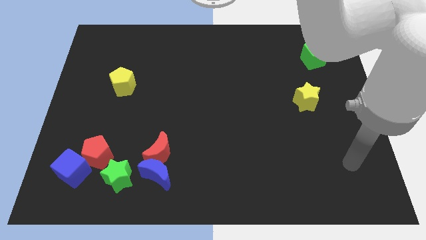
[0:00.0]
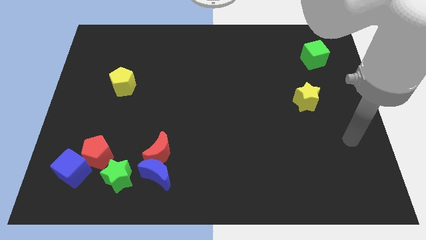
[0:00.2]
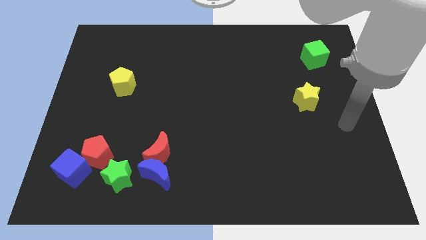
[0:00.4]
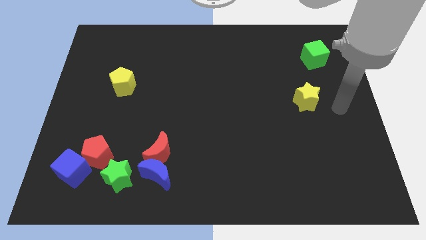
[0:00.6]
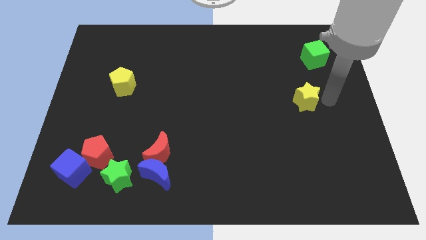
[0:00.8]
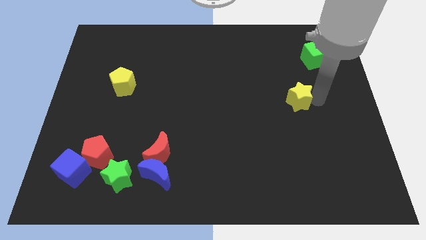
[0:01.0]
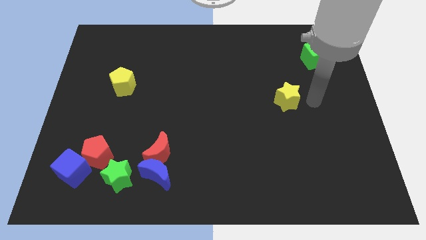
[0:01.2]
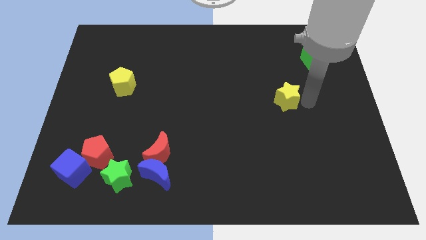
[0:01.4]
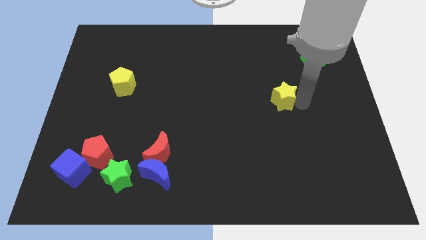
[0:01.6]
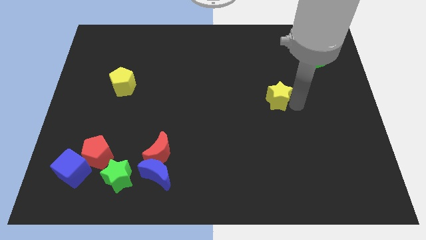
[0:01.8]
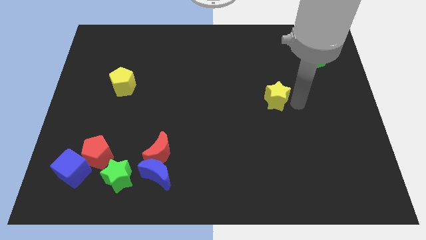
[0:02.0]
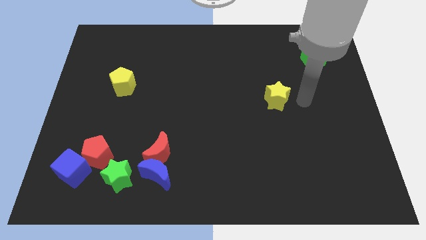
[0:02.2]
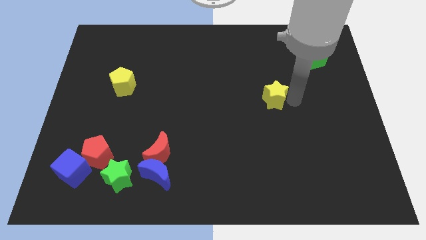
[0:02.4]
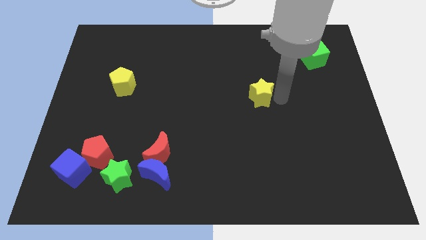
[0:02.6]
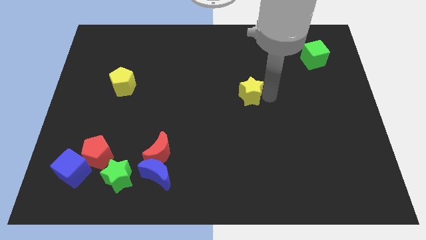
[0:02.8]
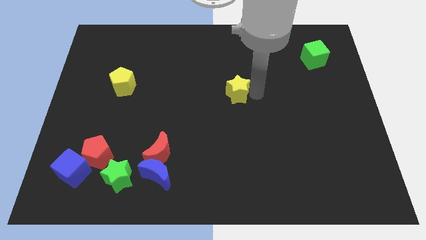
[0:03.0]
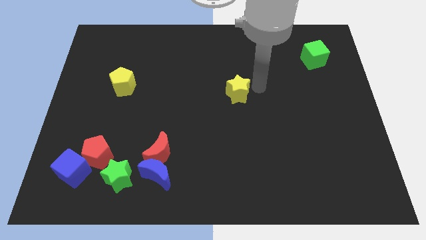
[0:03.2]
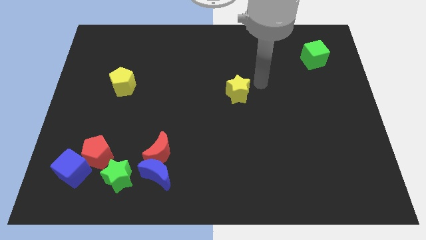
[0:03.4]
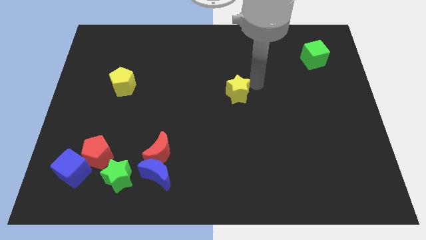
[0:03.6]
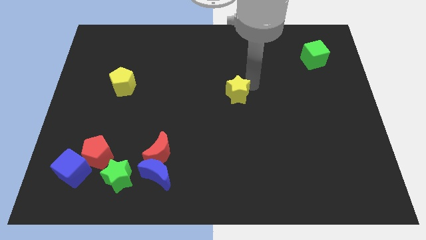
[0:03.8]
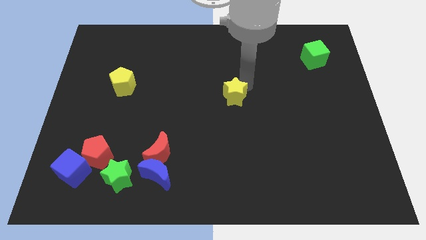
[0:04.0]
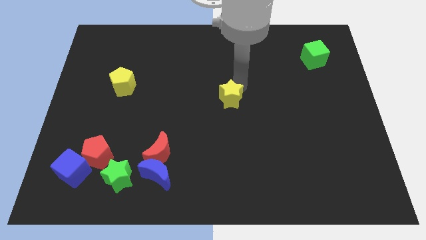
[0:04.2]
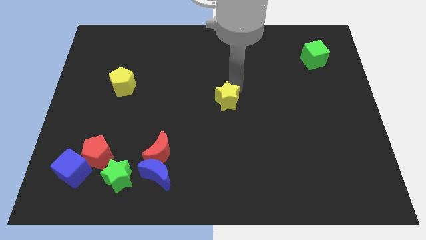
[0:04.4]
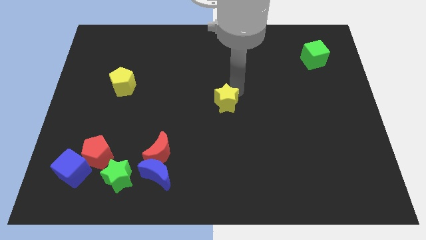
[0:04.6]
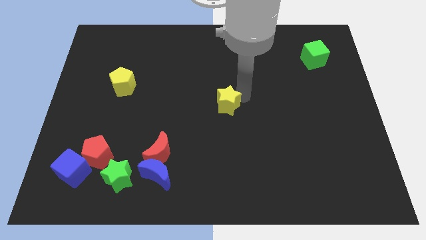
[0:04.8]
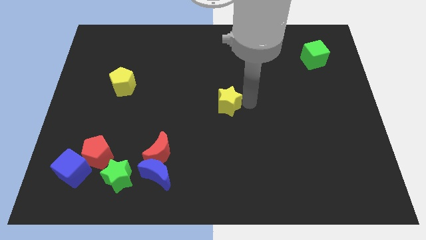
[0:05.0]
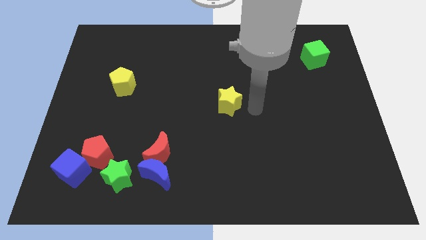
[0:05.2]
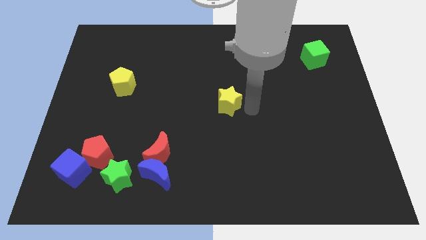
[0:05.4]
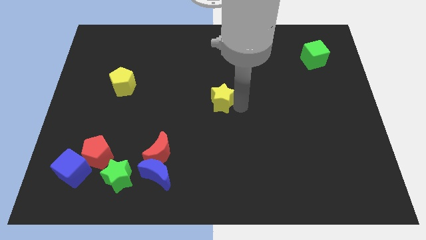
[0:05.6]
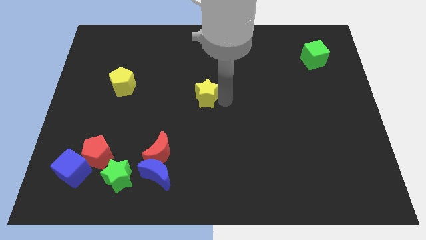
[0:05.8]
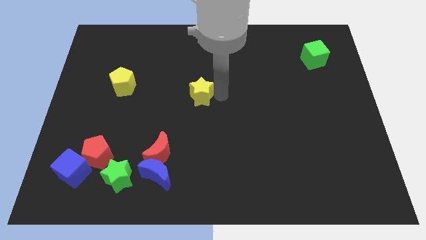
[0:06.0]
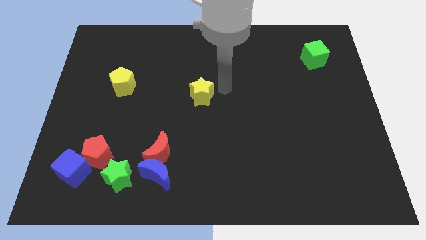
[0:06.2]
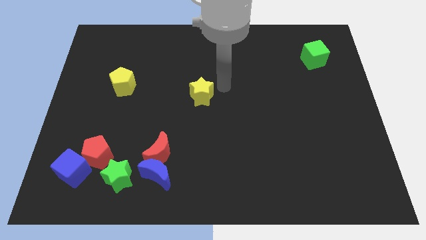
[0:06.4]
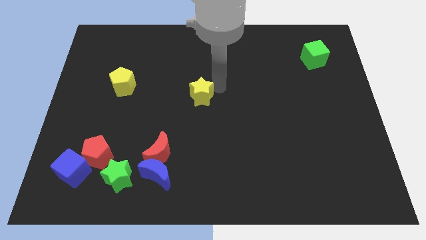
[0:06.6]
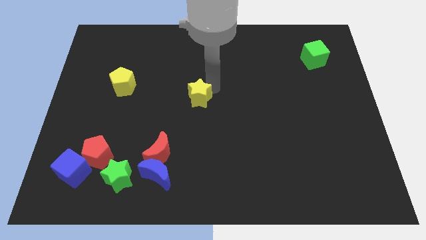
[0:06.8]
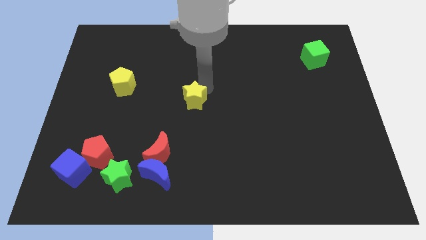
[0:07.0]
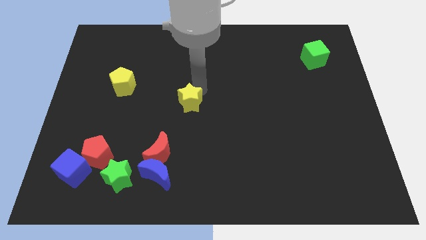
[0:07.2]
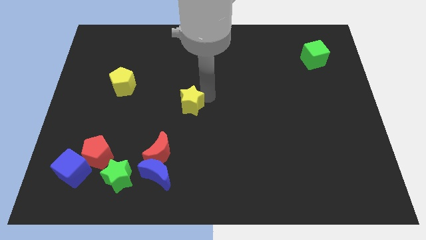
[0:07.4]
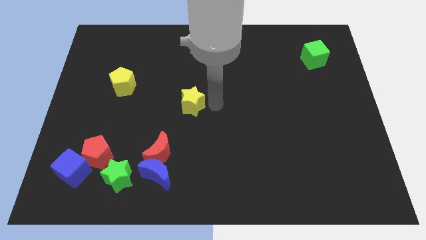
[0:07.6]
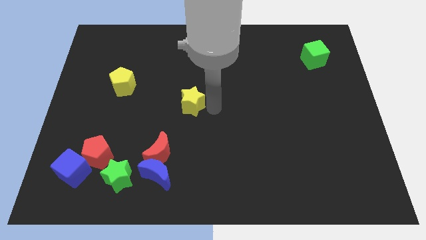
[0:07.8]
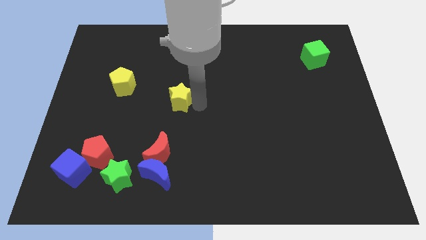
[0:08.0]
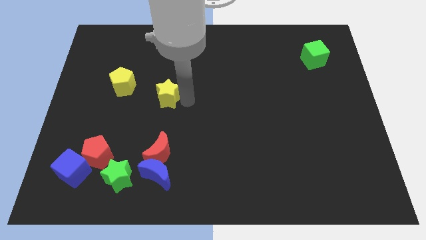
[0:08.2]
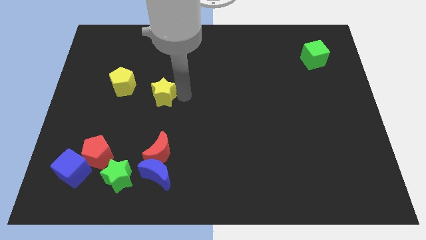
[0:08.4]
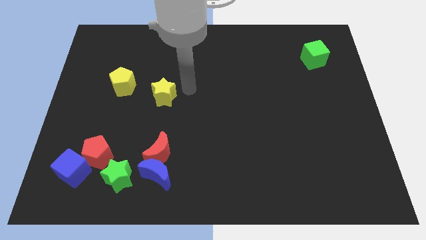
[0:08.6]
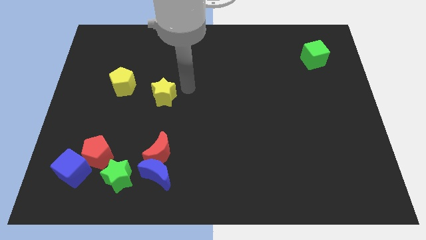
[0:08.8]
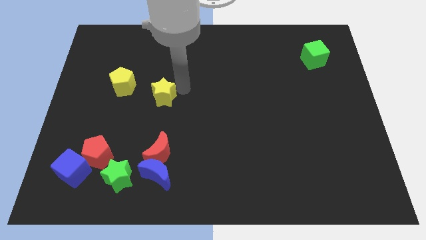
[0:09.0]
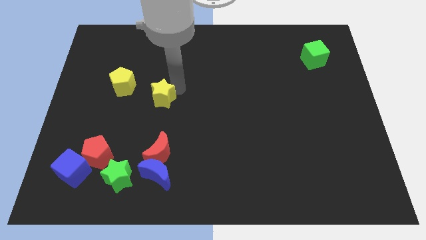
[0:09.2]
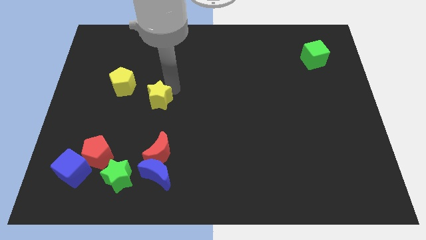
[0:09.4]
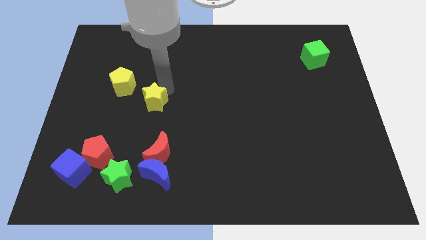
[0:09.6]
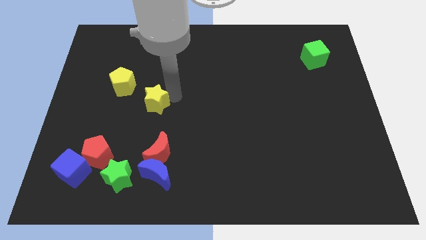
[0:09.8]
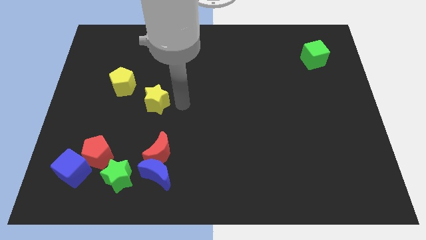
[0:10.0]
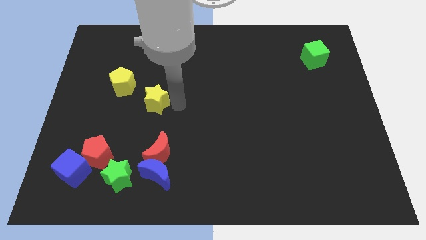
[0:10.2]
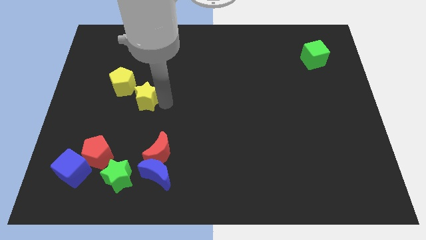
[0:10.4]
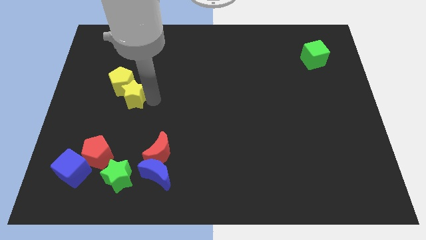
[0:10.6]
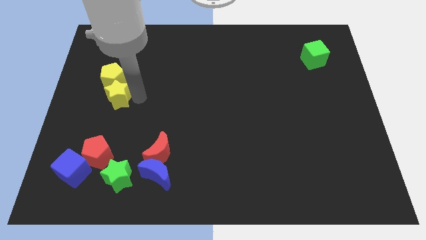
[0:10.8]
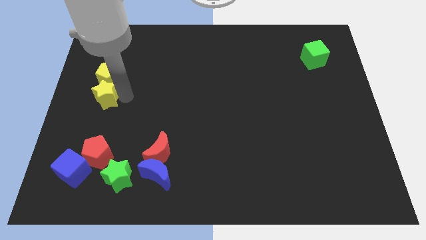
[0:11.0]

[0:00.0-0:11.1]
slide the yellow star to the left side of the board

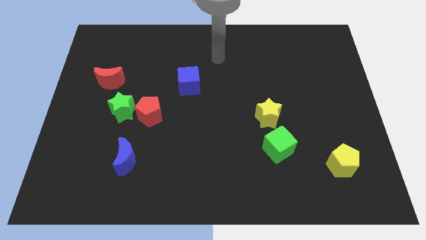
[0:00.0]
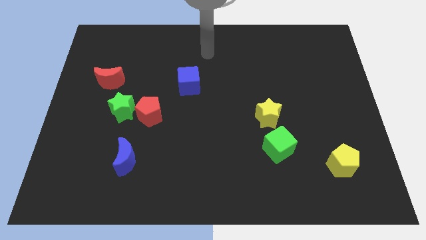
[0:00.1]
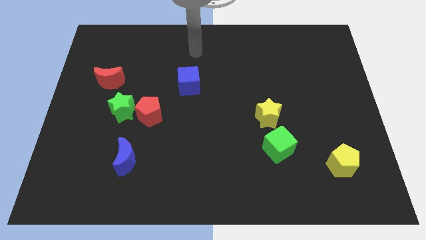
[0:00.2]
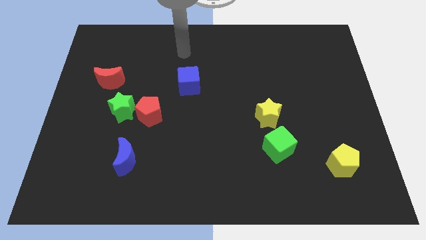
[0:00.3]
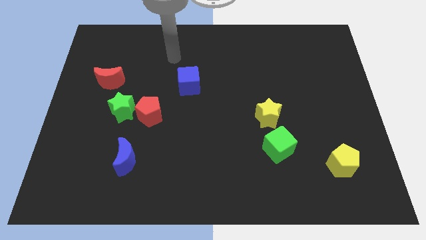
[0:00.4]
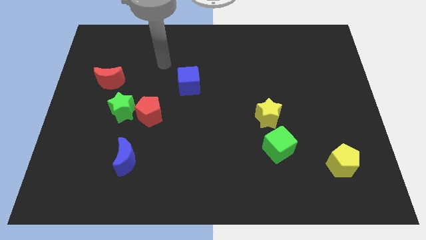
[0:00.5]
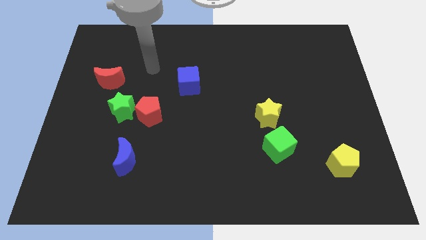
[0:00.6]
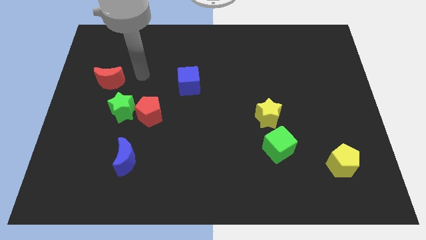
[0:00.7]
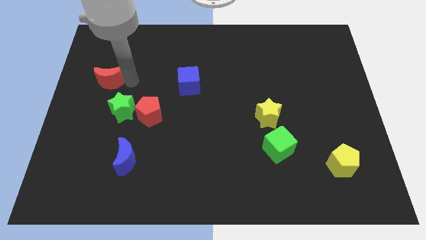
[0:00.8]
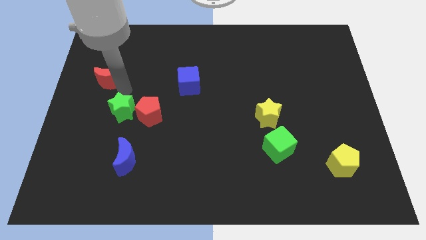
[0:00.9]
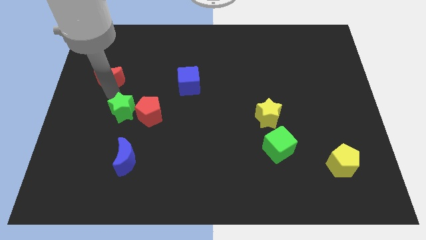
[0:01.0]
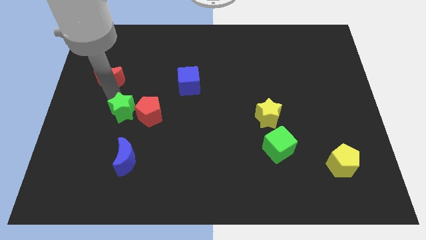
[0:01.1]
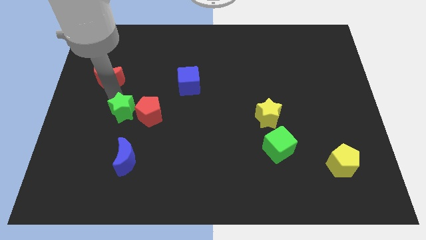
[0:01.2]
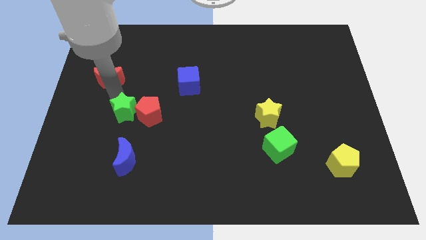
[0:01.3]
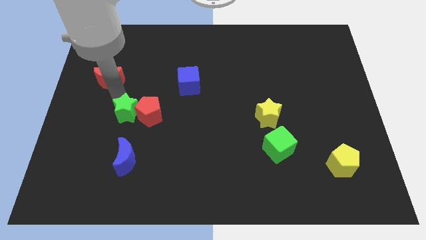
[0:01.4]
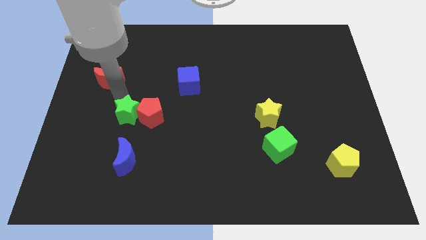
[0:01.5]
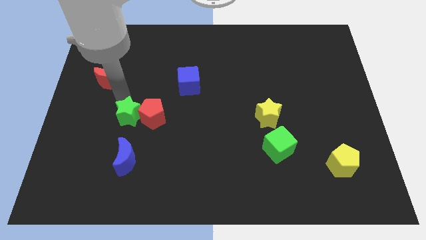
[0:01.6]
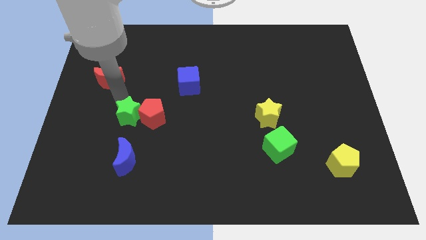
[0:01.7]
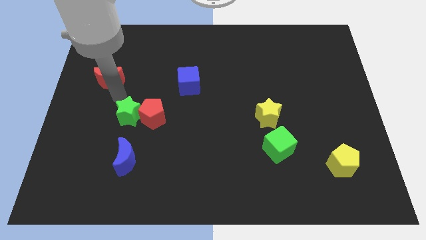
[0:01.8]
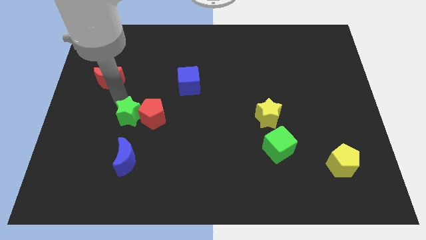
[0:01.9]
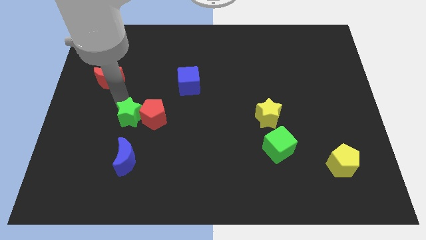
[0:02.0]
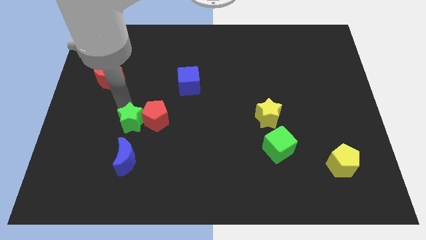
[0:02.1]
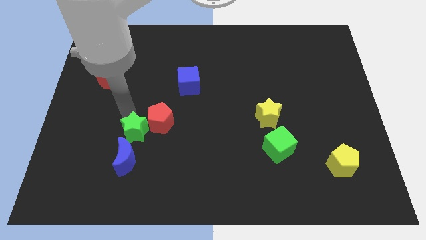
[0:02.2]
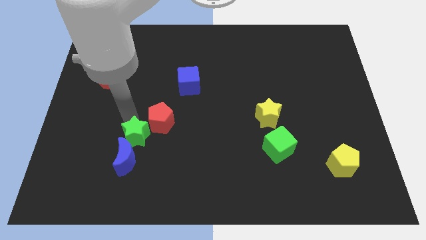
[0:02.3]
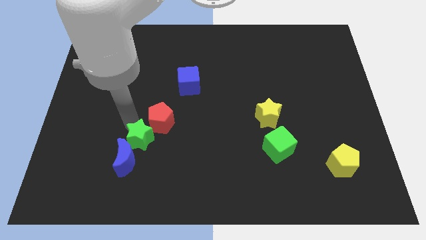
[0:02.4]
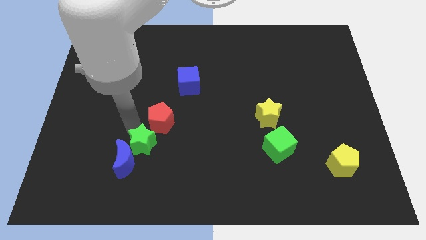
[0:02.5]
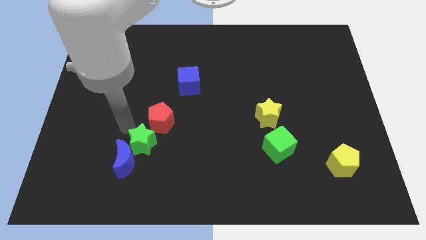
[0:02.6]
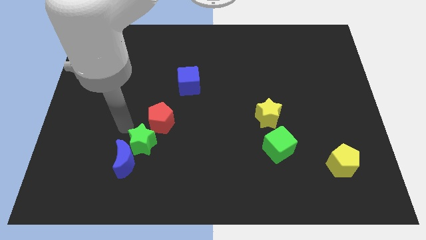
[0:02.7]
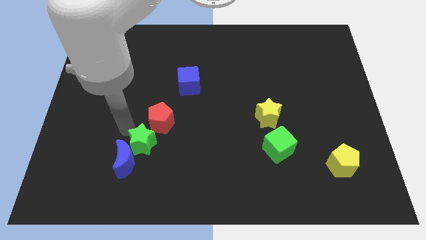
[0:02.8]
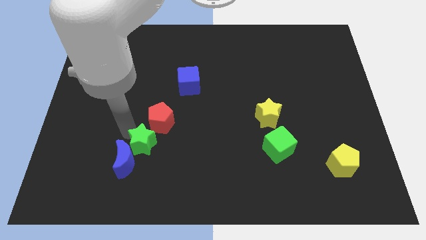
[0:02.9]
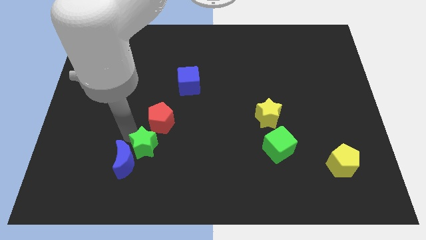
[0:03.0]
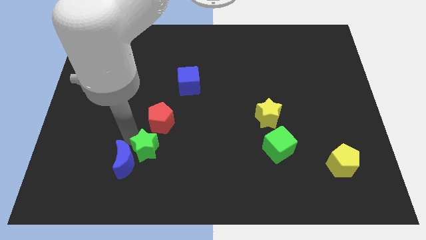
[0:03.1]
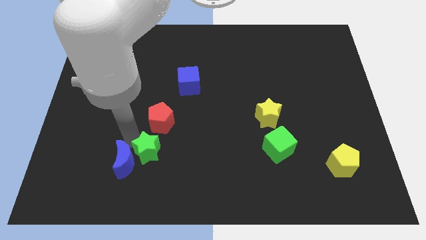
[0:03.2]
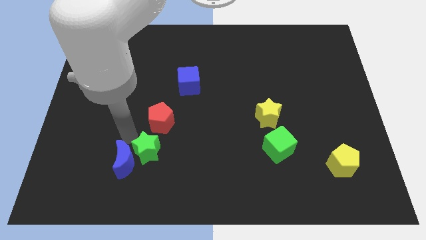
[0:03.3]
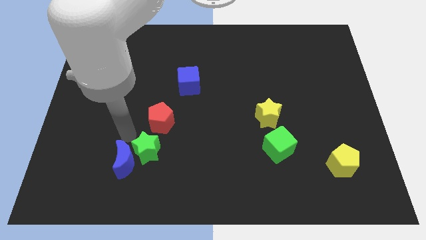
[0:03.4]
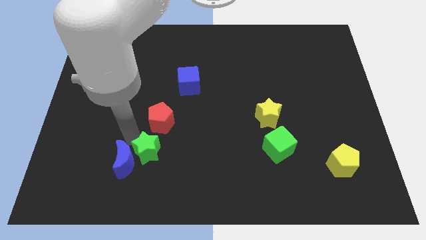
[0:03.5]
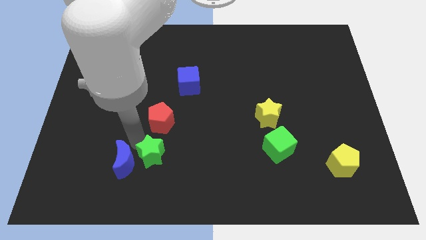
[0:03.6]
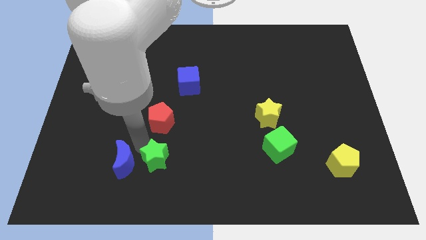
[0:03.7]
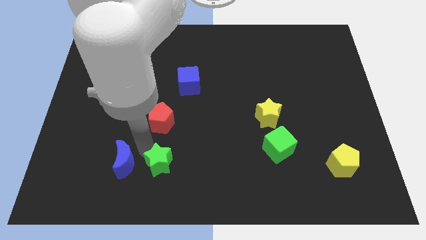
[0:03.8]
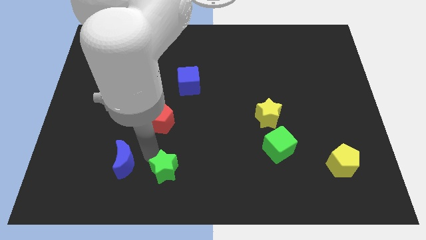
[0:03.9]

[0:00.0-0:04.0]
put the green star to the bottom side
